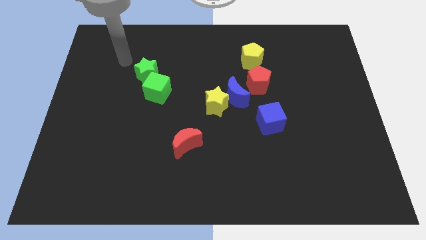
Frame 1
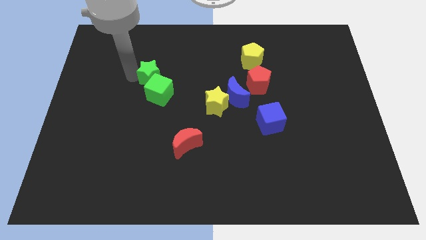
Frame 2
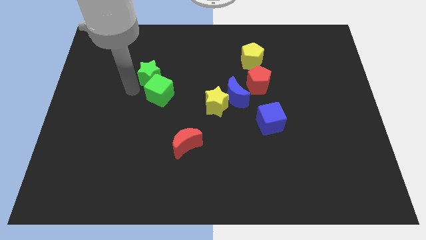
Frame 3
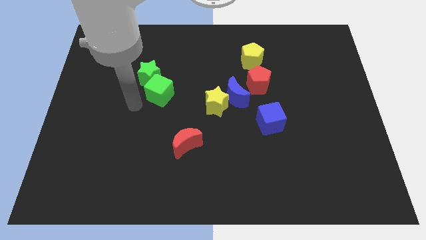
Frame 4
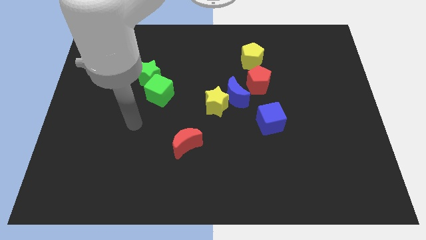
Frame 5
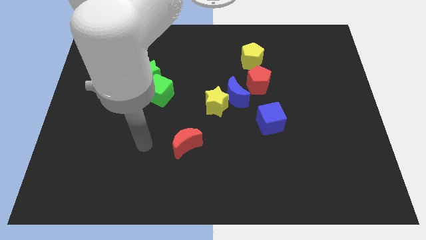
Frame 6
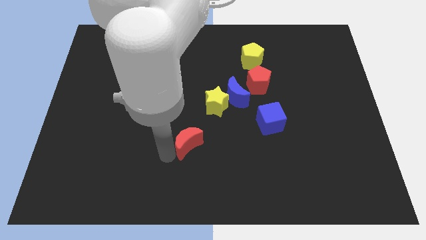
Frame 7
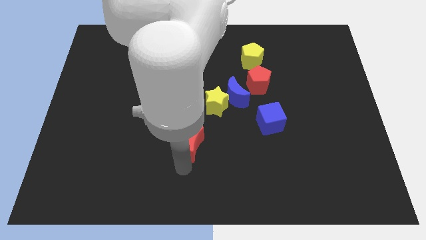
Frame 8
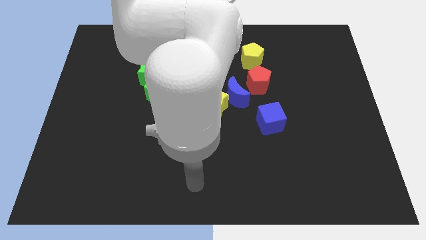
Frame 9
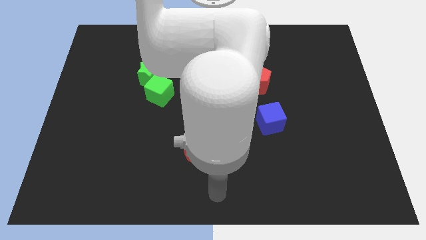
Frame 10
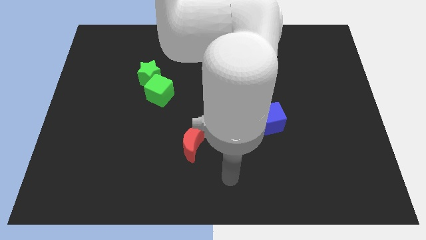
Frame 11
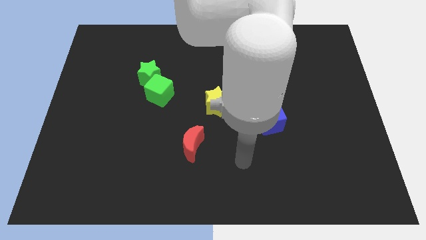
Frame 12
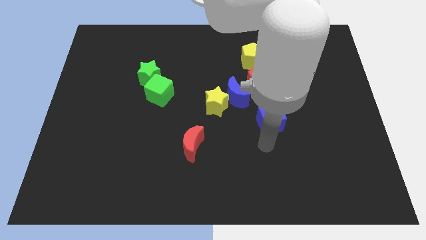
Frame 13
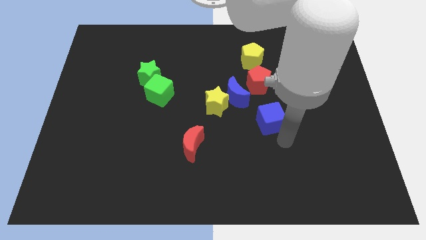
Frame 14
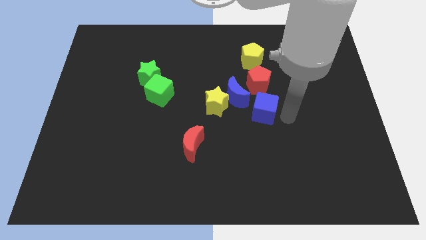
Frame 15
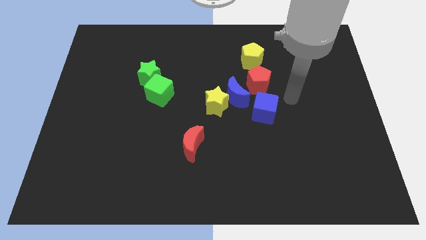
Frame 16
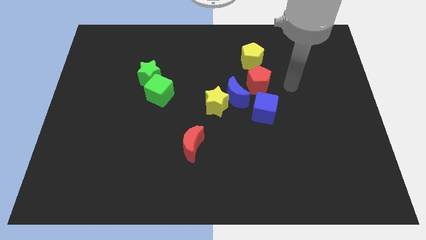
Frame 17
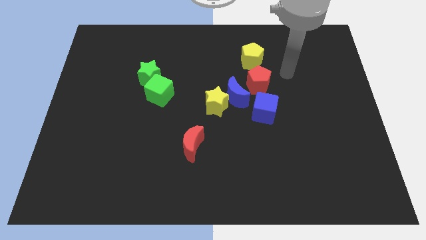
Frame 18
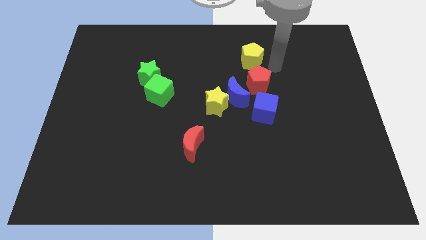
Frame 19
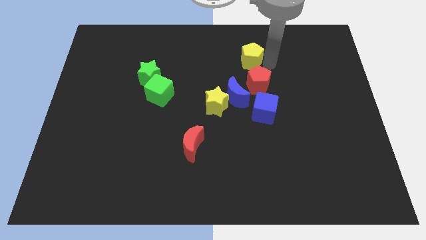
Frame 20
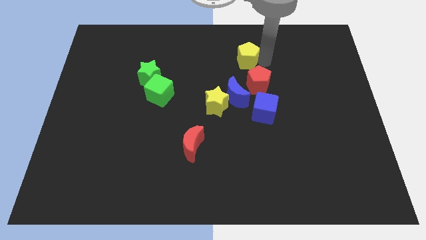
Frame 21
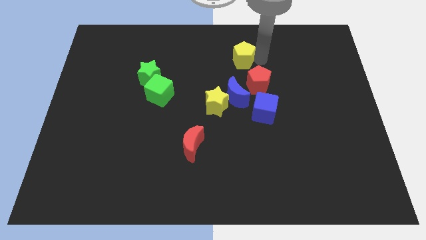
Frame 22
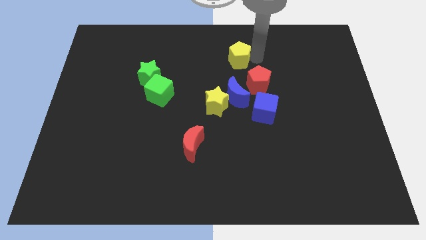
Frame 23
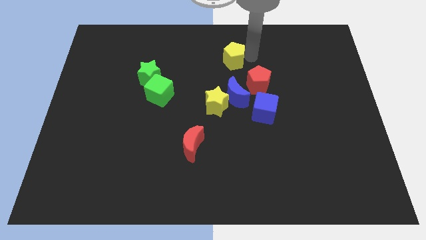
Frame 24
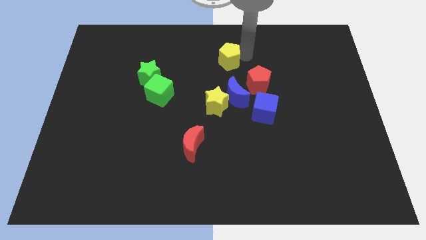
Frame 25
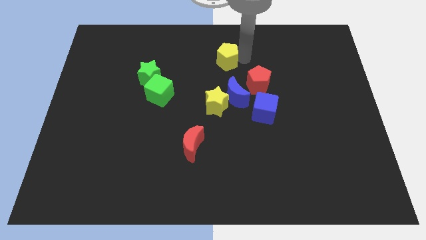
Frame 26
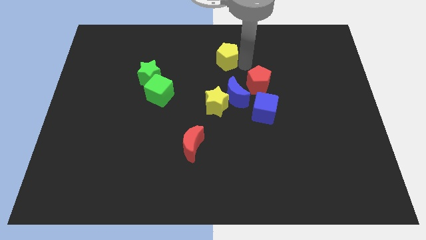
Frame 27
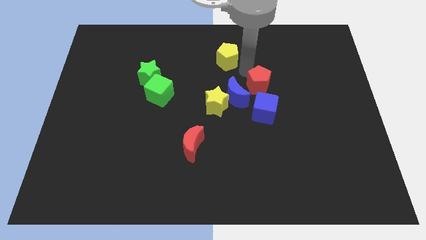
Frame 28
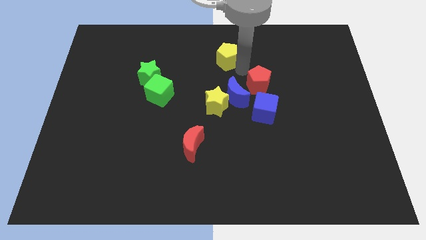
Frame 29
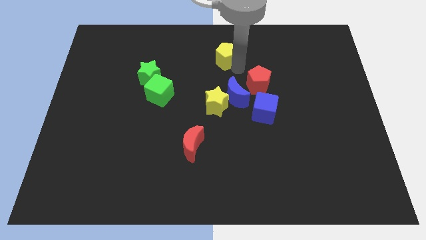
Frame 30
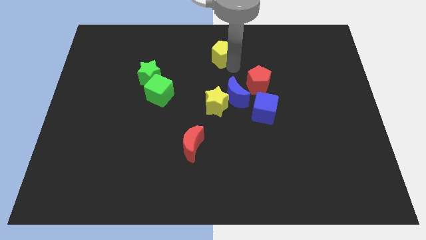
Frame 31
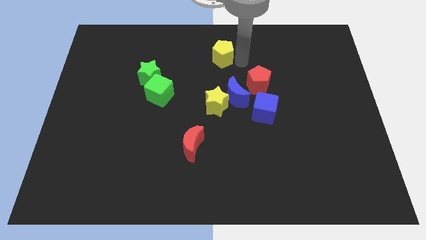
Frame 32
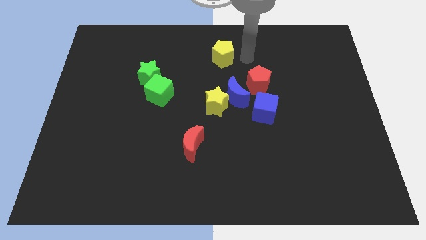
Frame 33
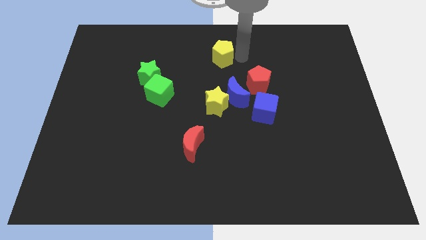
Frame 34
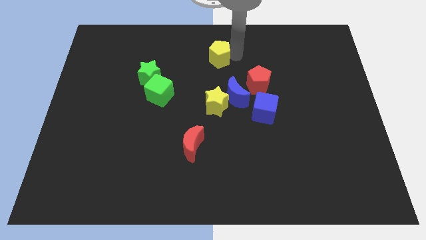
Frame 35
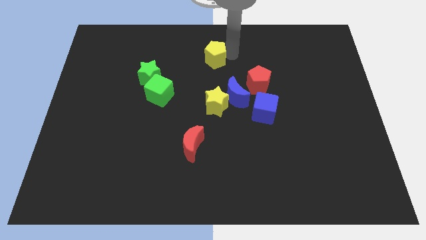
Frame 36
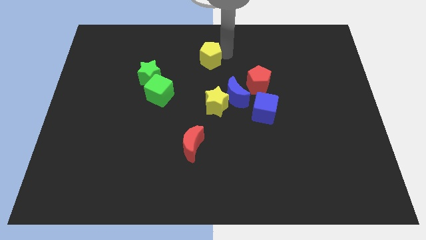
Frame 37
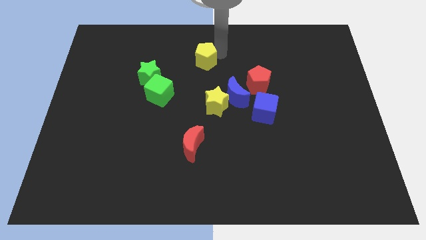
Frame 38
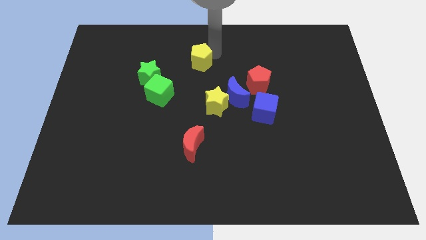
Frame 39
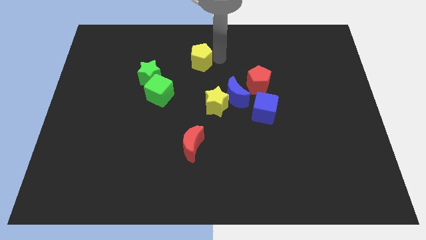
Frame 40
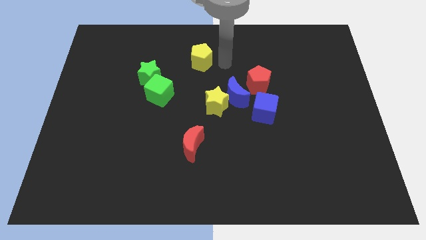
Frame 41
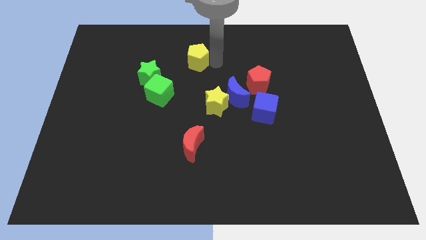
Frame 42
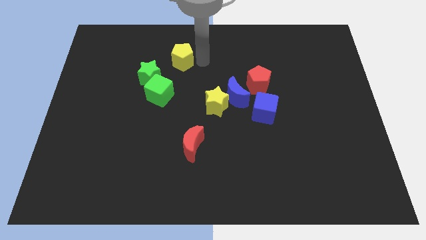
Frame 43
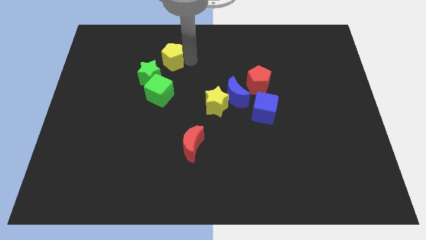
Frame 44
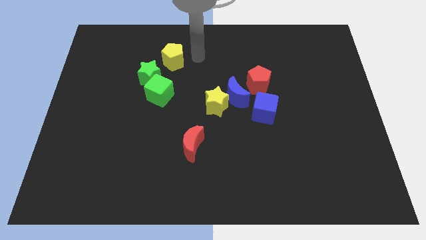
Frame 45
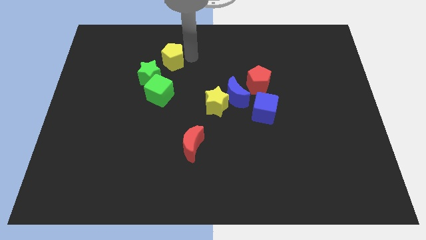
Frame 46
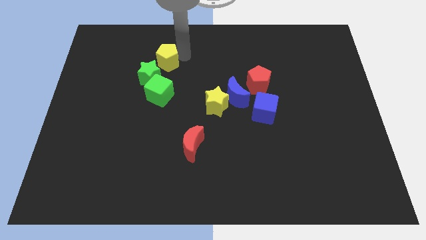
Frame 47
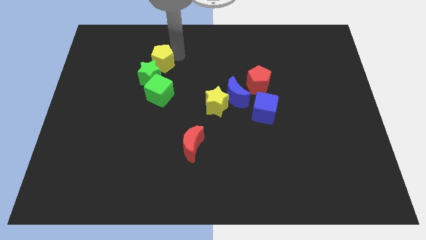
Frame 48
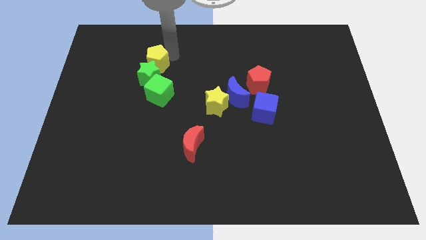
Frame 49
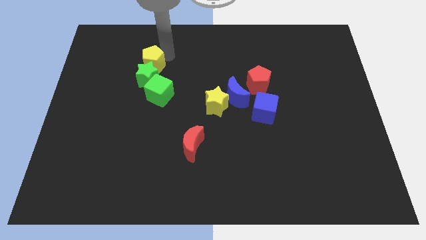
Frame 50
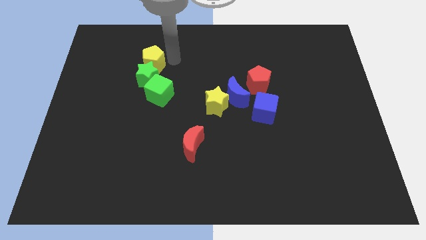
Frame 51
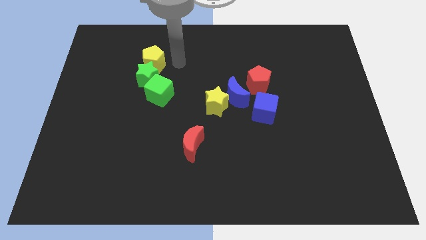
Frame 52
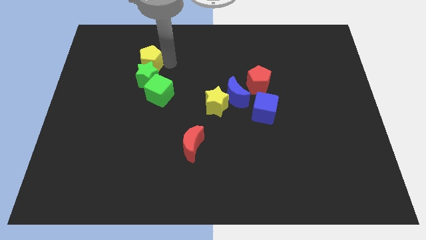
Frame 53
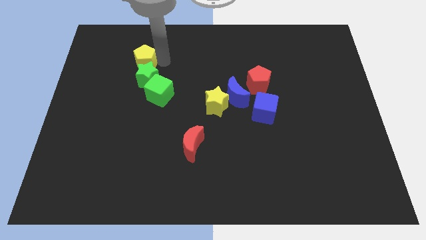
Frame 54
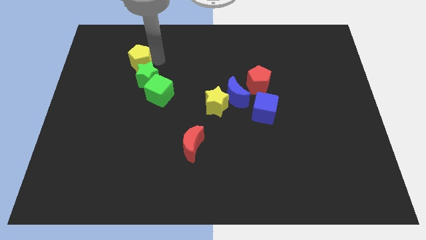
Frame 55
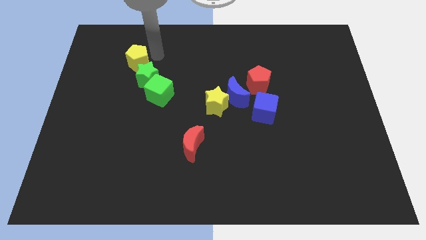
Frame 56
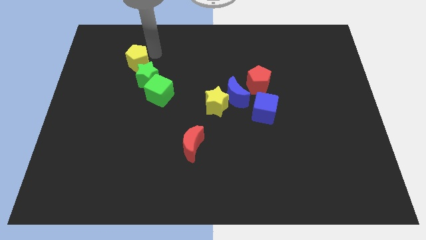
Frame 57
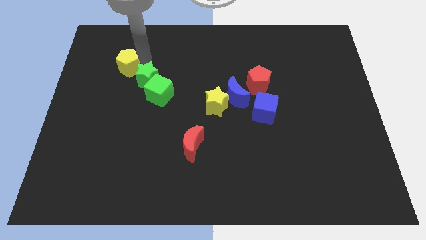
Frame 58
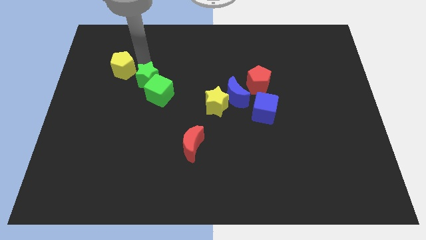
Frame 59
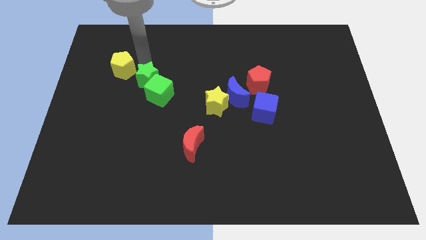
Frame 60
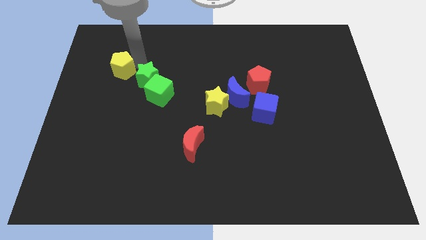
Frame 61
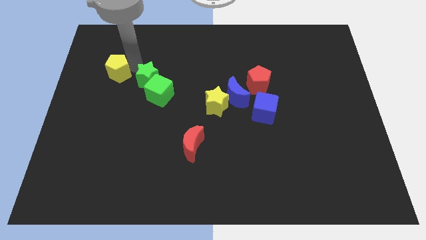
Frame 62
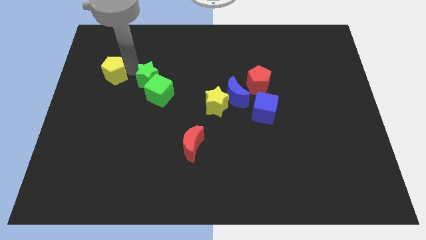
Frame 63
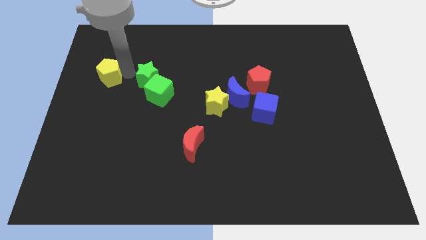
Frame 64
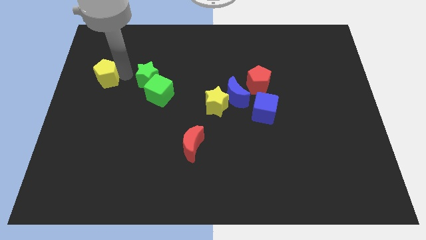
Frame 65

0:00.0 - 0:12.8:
push the yellow pentagon to the left side of the board
